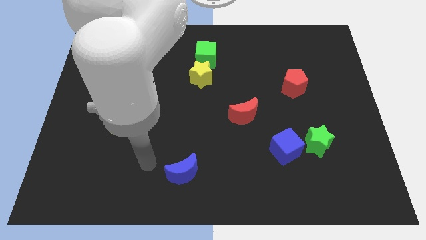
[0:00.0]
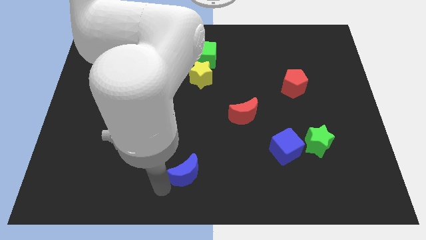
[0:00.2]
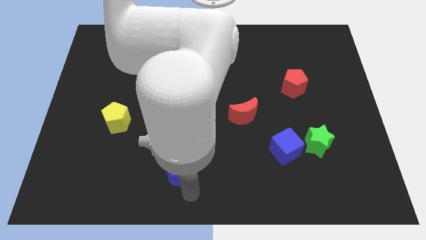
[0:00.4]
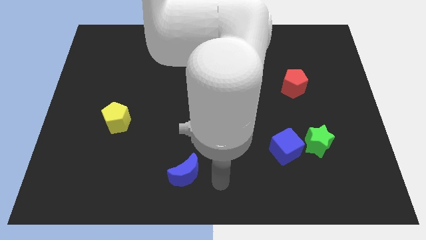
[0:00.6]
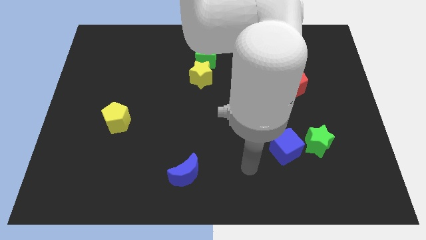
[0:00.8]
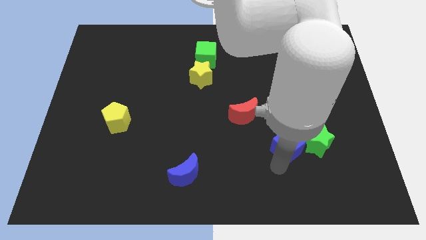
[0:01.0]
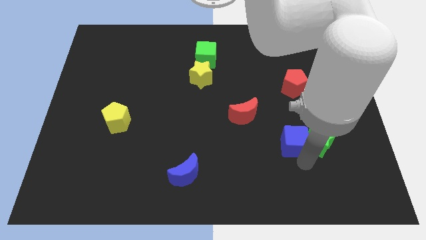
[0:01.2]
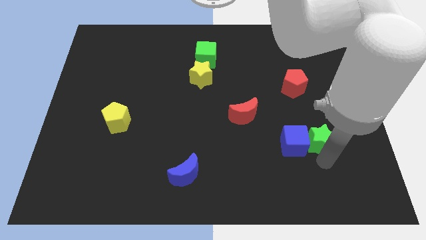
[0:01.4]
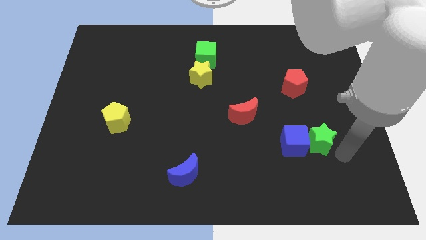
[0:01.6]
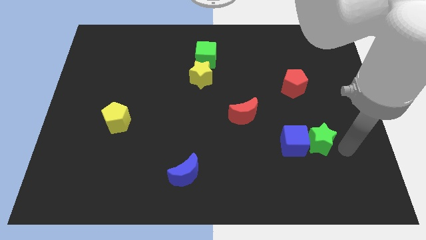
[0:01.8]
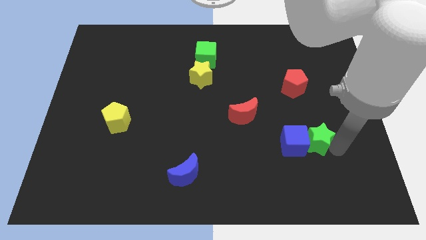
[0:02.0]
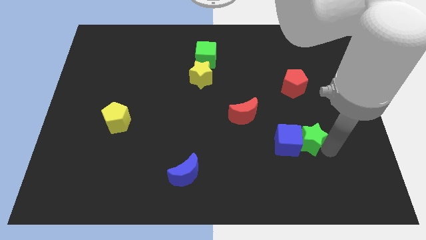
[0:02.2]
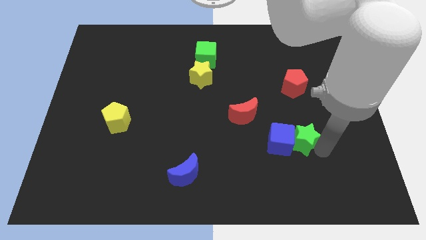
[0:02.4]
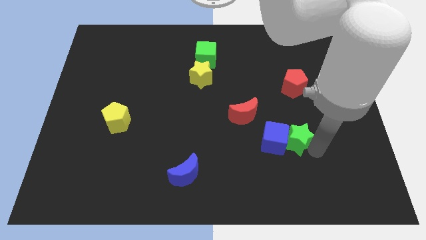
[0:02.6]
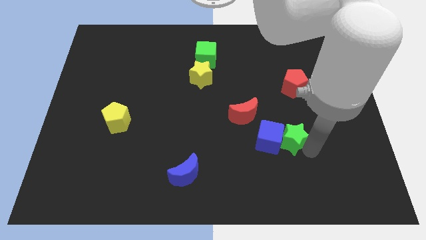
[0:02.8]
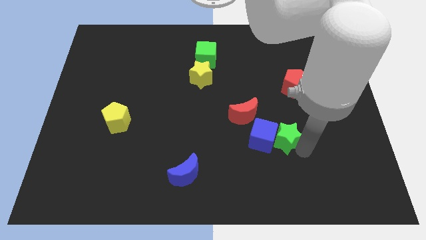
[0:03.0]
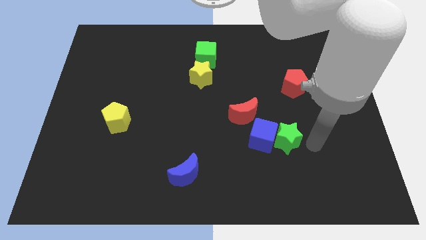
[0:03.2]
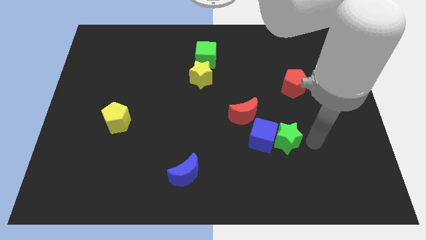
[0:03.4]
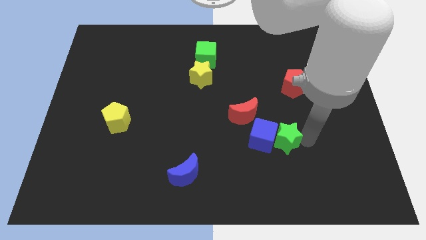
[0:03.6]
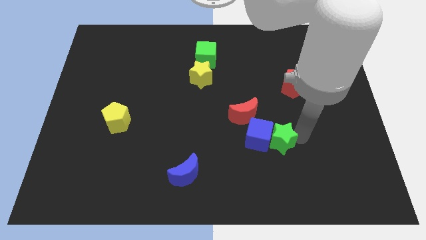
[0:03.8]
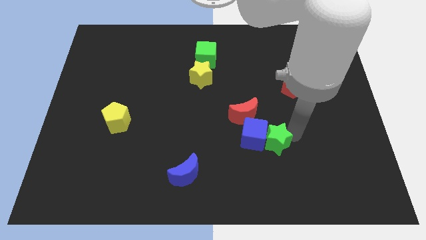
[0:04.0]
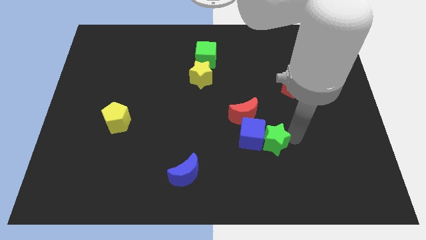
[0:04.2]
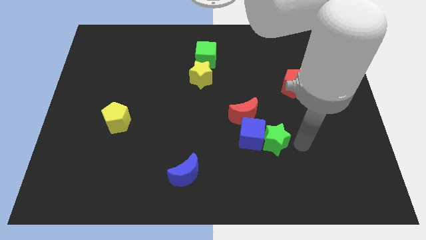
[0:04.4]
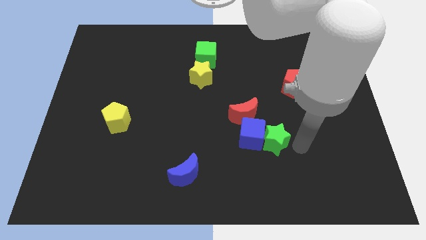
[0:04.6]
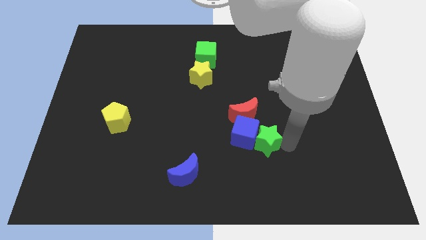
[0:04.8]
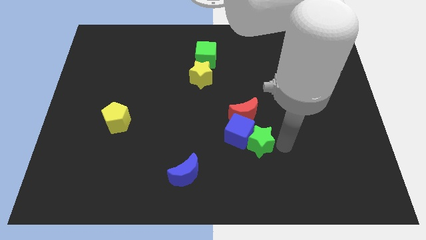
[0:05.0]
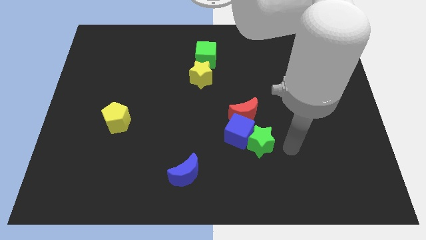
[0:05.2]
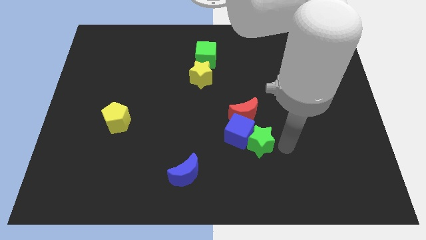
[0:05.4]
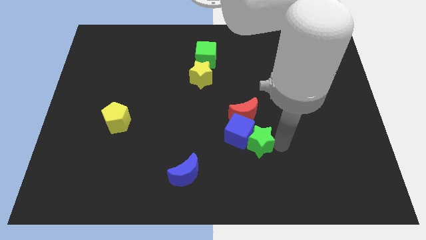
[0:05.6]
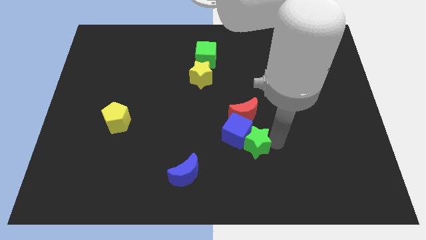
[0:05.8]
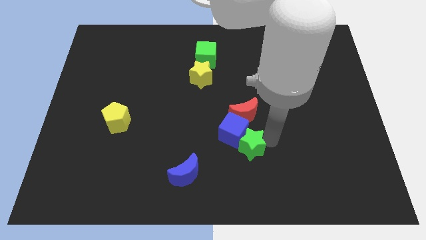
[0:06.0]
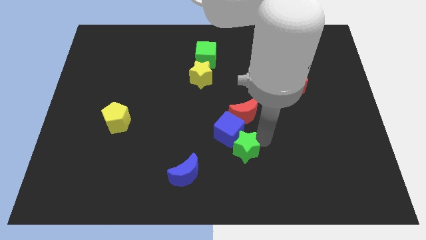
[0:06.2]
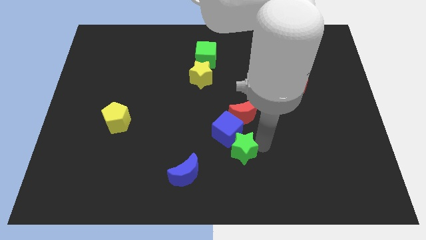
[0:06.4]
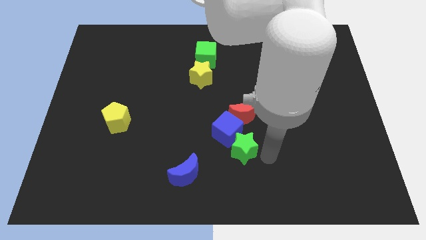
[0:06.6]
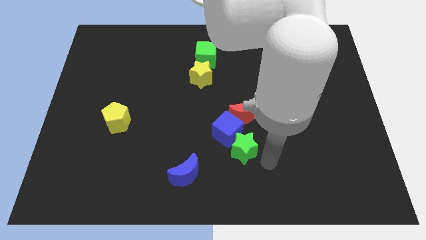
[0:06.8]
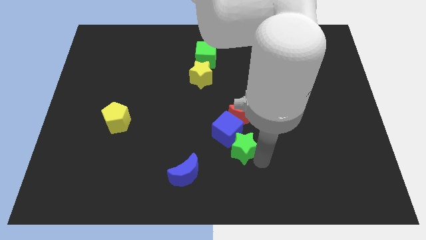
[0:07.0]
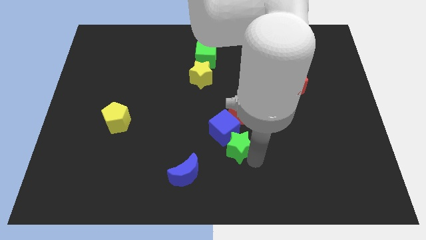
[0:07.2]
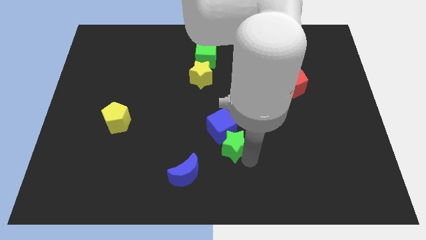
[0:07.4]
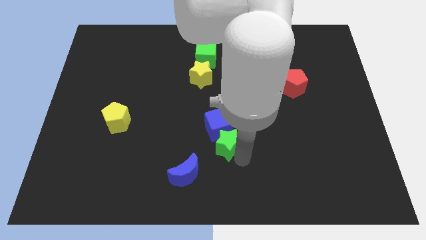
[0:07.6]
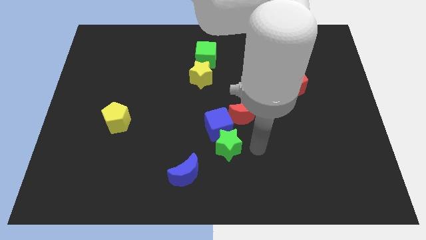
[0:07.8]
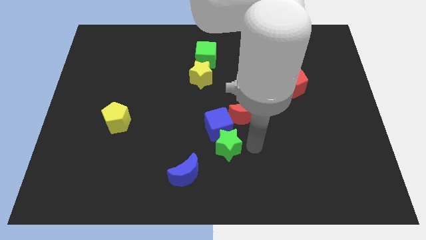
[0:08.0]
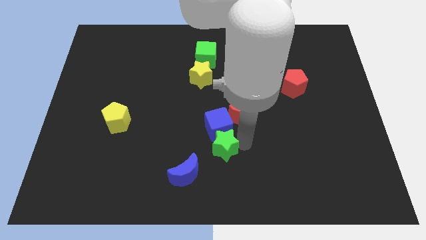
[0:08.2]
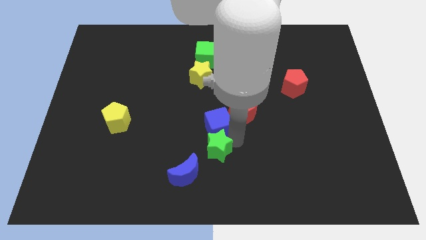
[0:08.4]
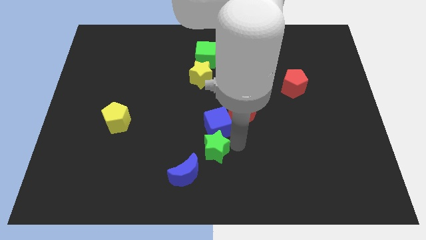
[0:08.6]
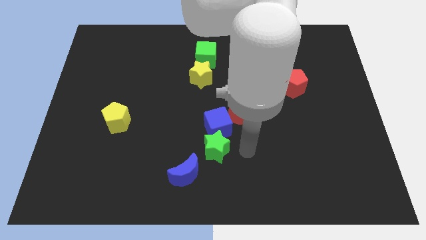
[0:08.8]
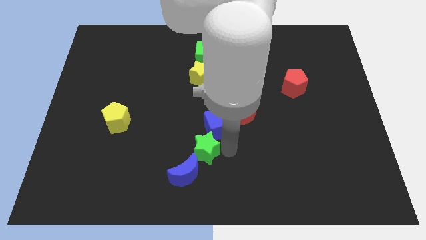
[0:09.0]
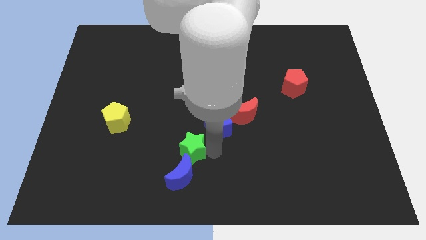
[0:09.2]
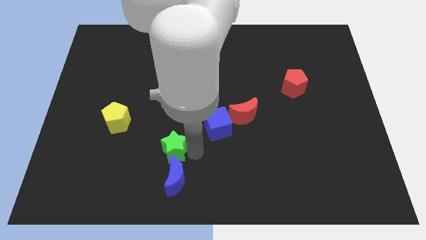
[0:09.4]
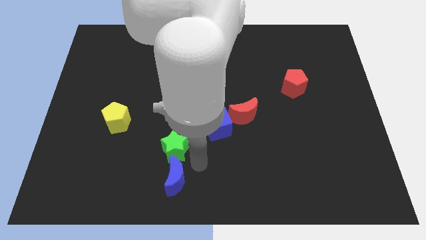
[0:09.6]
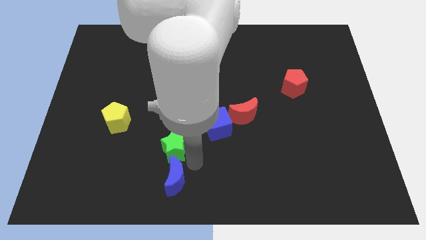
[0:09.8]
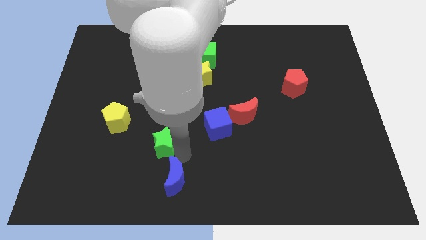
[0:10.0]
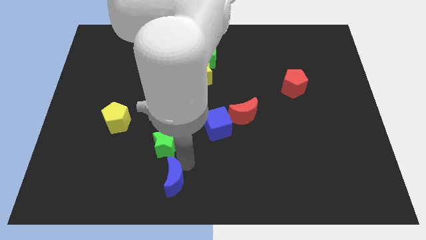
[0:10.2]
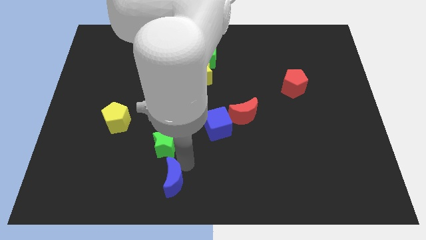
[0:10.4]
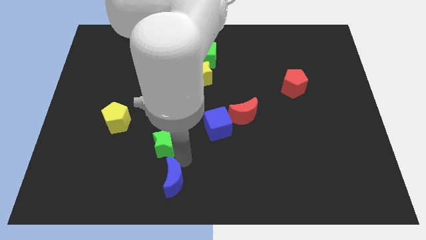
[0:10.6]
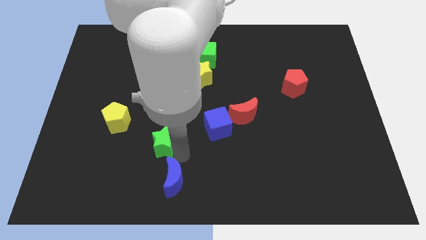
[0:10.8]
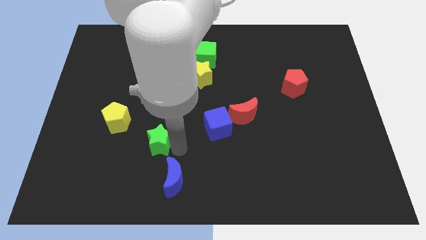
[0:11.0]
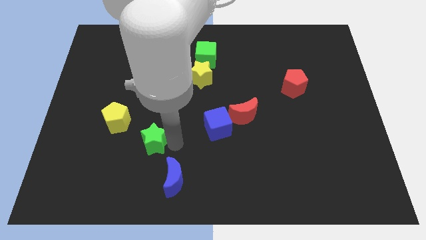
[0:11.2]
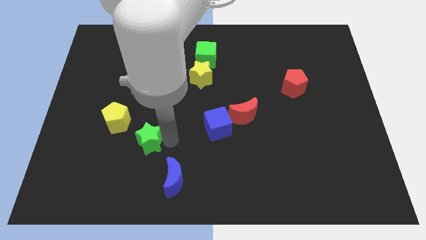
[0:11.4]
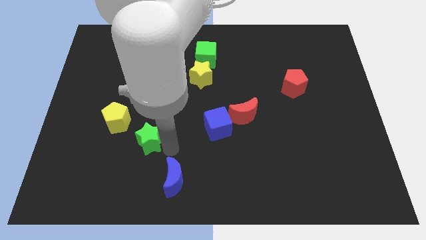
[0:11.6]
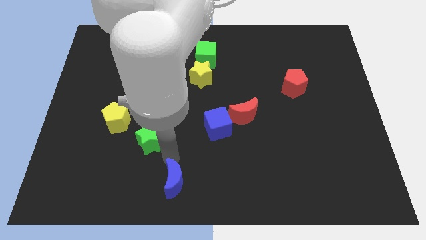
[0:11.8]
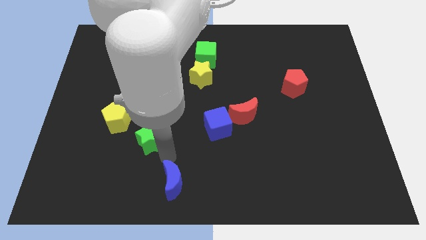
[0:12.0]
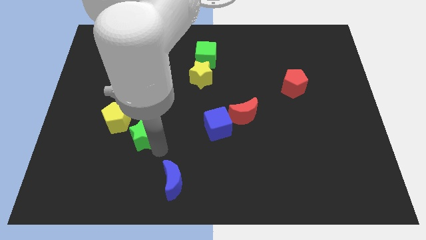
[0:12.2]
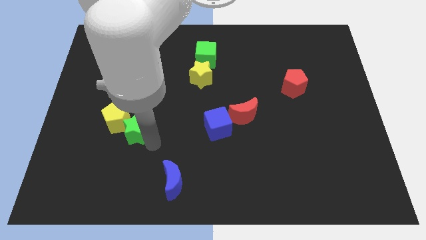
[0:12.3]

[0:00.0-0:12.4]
push the green star close to the yellow pentagon
